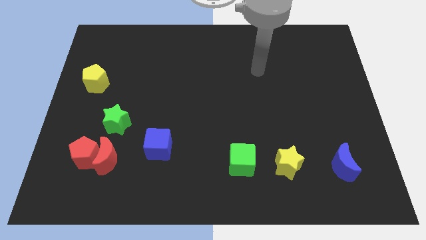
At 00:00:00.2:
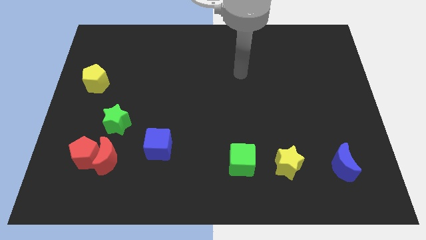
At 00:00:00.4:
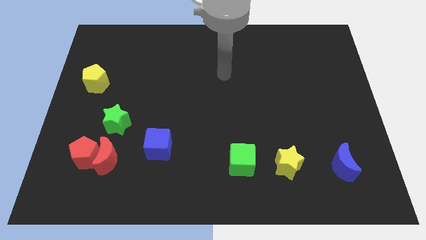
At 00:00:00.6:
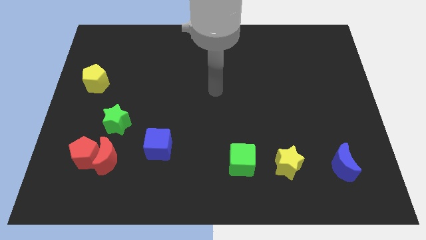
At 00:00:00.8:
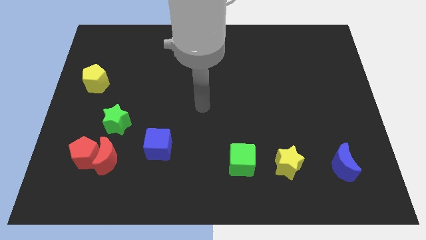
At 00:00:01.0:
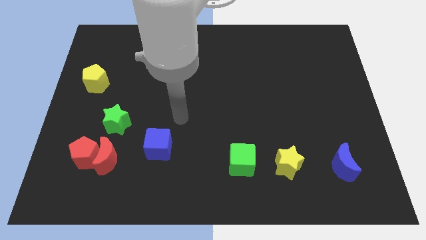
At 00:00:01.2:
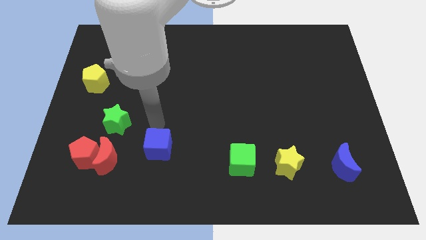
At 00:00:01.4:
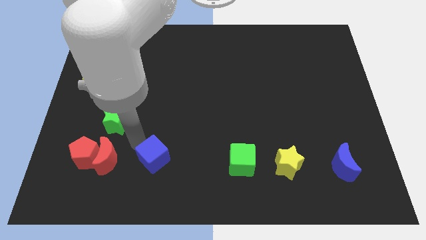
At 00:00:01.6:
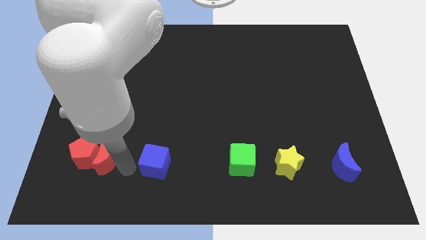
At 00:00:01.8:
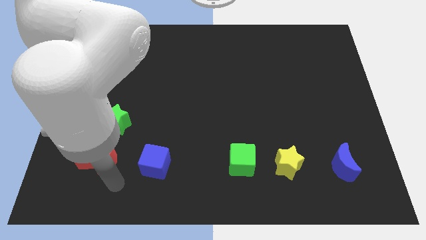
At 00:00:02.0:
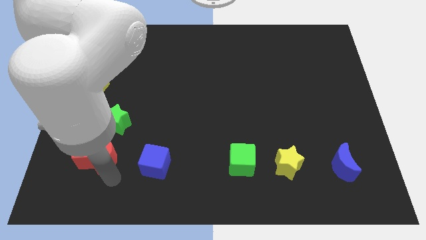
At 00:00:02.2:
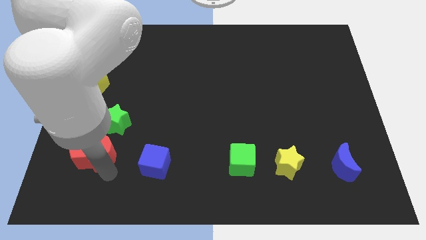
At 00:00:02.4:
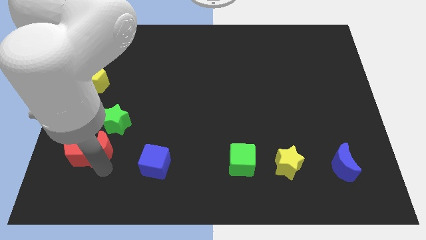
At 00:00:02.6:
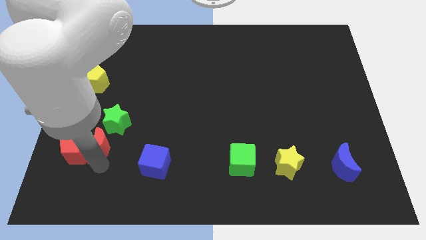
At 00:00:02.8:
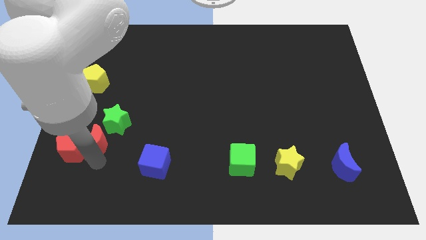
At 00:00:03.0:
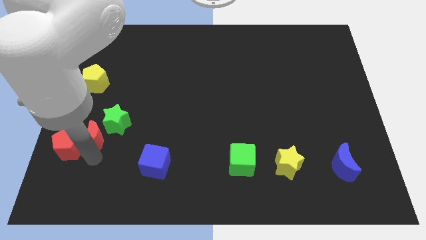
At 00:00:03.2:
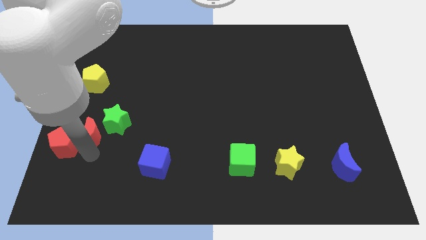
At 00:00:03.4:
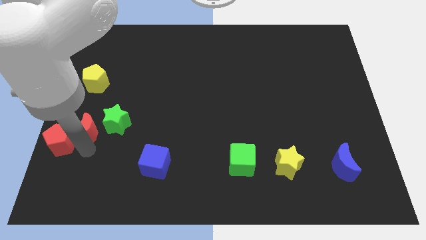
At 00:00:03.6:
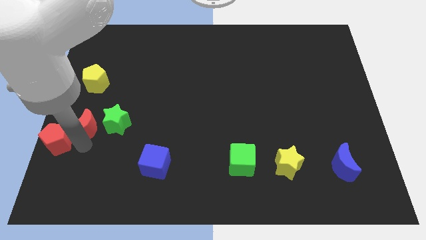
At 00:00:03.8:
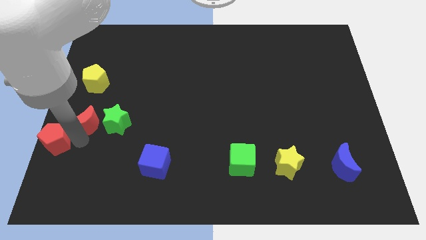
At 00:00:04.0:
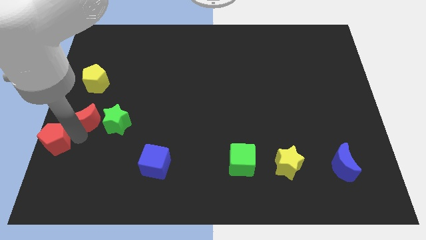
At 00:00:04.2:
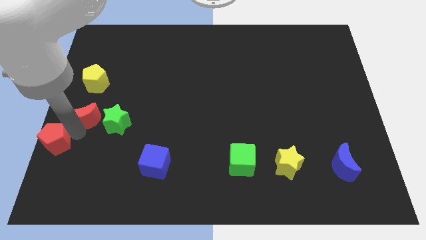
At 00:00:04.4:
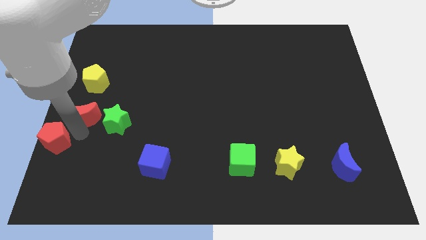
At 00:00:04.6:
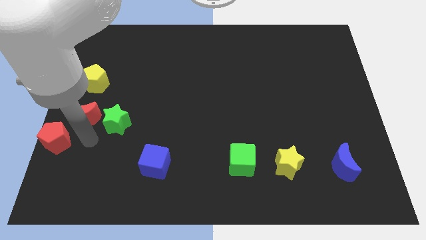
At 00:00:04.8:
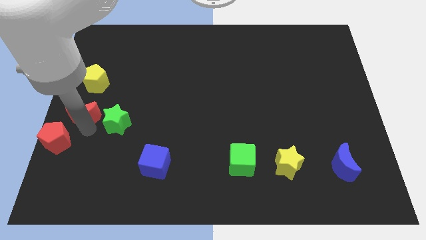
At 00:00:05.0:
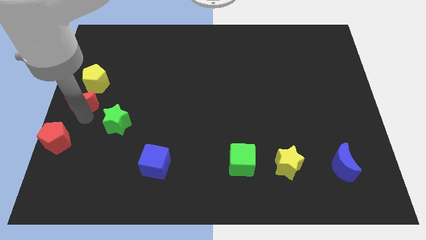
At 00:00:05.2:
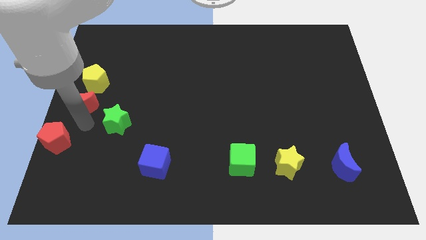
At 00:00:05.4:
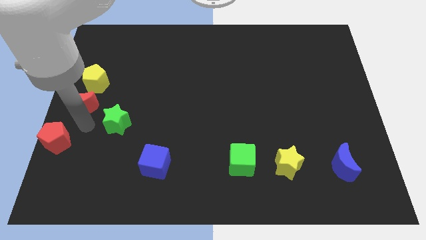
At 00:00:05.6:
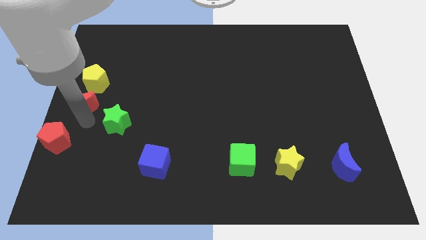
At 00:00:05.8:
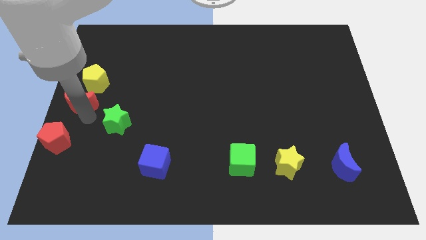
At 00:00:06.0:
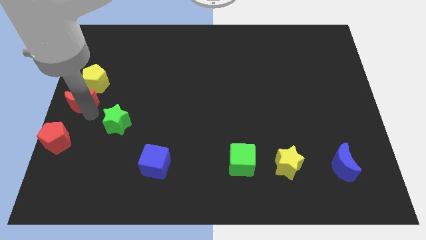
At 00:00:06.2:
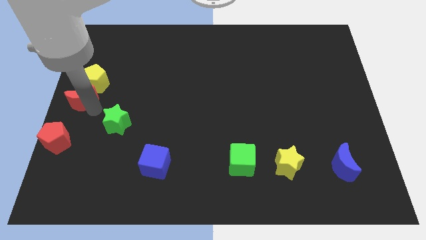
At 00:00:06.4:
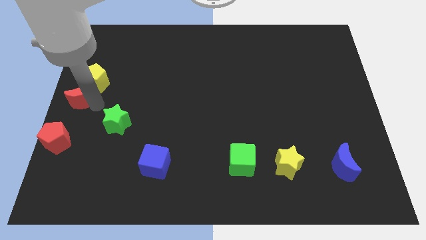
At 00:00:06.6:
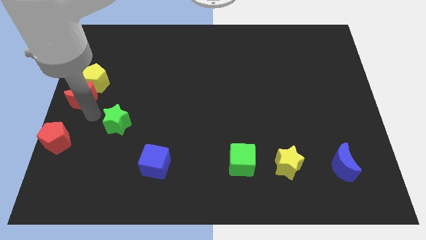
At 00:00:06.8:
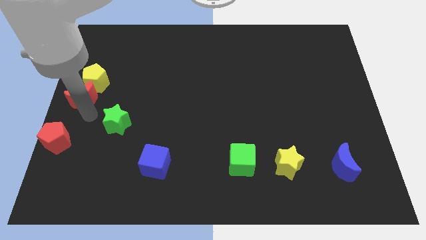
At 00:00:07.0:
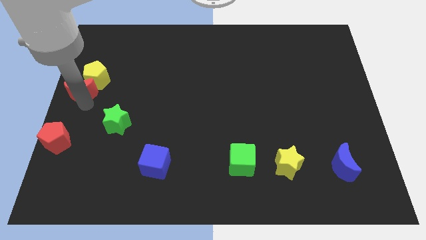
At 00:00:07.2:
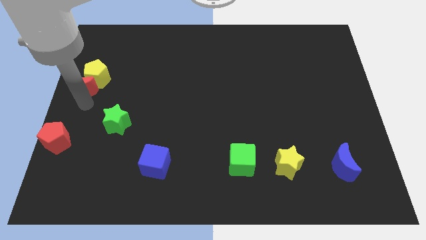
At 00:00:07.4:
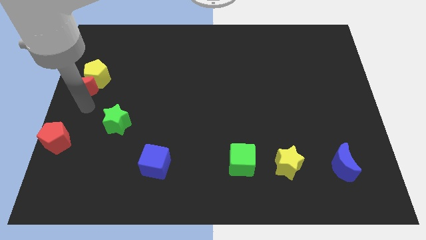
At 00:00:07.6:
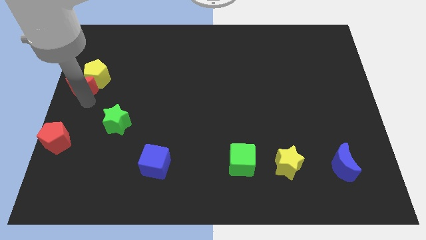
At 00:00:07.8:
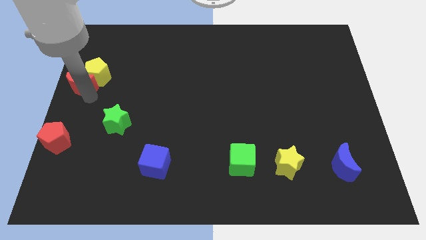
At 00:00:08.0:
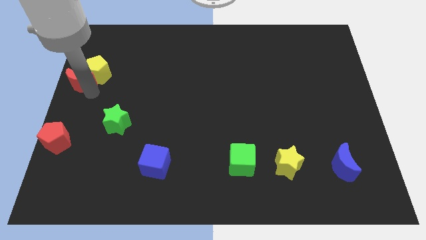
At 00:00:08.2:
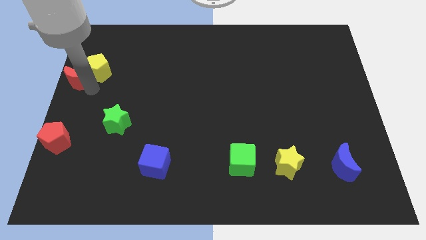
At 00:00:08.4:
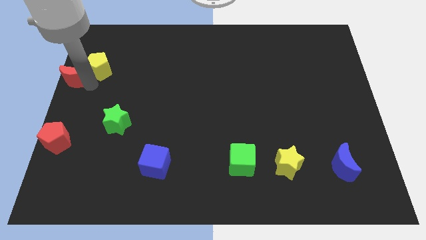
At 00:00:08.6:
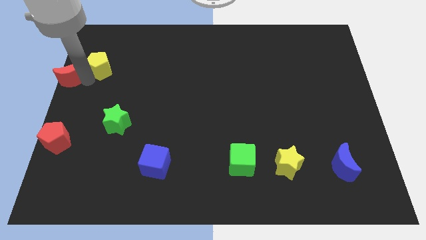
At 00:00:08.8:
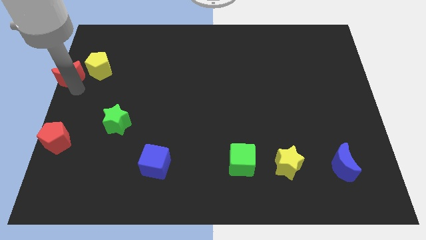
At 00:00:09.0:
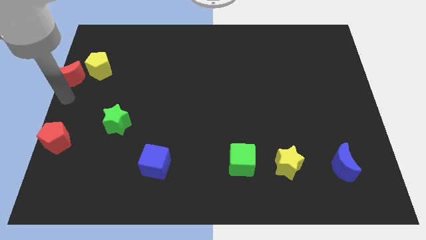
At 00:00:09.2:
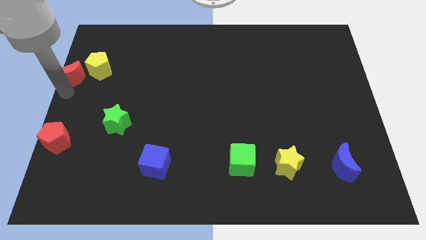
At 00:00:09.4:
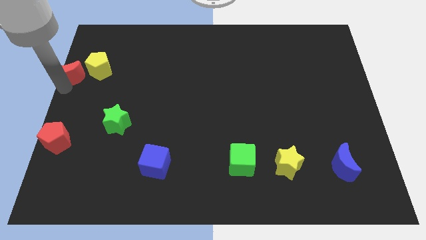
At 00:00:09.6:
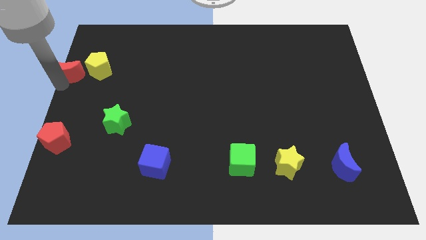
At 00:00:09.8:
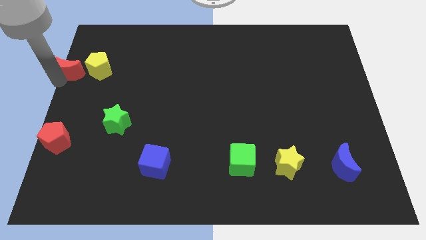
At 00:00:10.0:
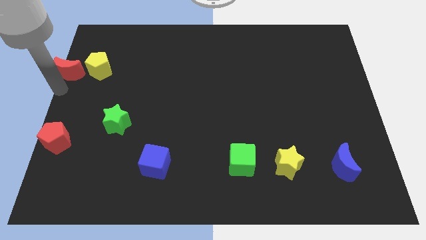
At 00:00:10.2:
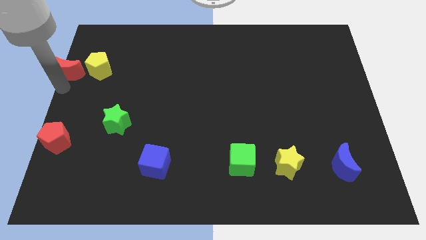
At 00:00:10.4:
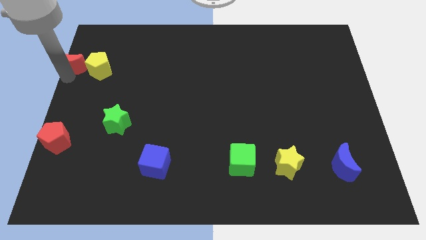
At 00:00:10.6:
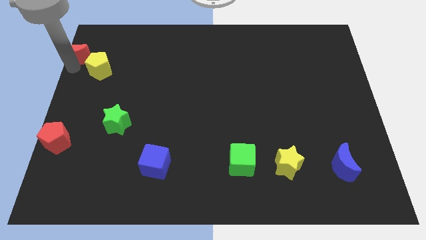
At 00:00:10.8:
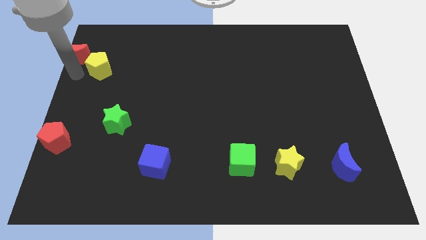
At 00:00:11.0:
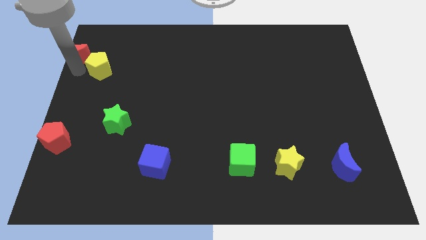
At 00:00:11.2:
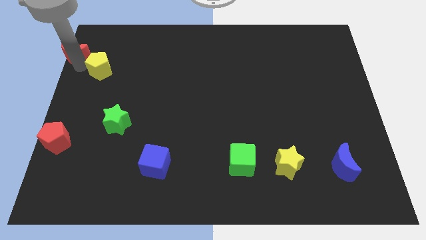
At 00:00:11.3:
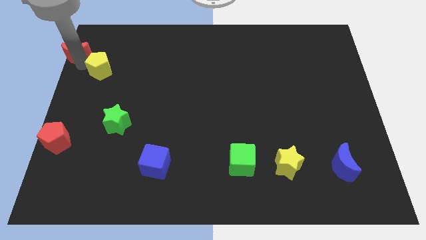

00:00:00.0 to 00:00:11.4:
put the red moon to the top left of the board
